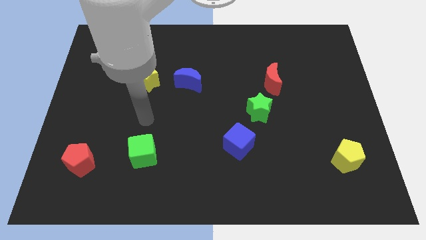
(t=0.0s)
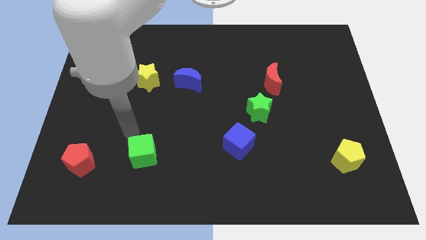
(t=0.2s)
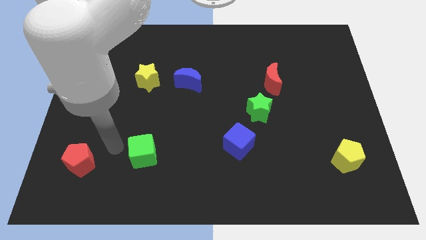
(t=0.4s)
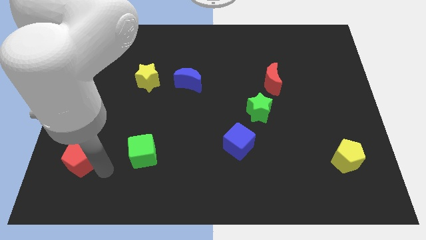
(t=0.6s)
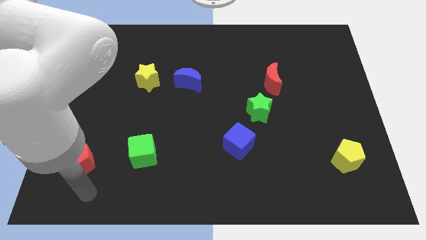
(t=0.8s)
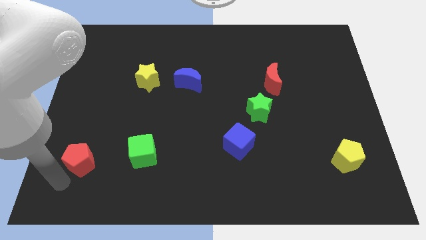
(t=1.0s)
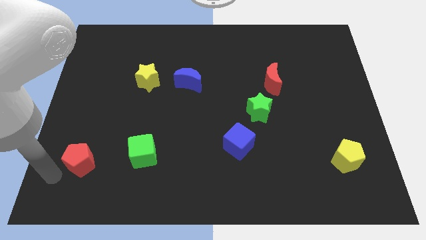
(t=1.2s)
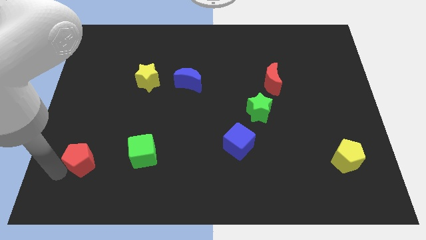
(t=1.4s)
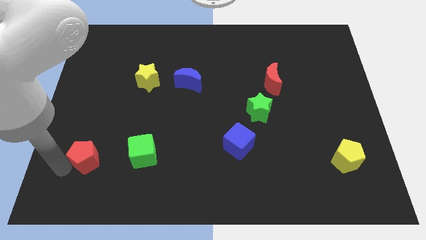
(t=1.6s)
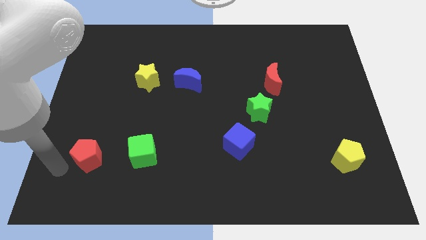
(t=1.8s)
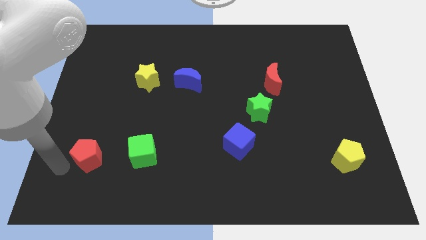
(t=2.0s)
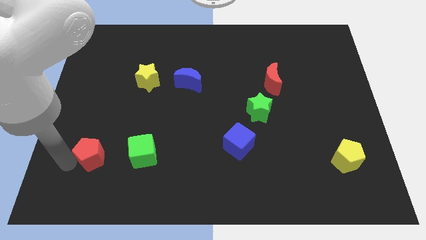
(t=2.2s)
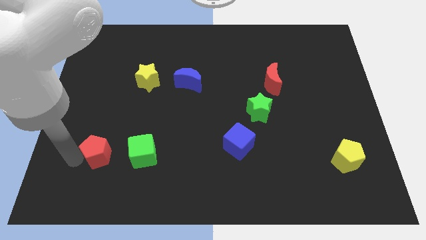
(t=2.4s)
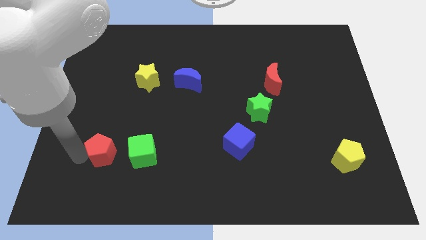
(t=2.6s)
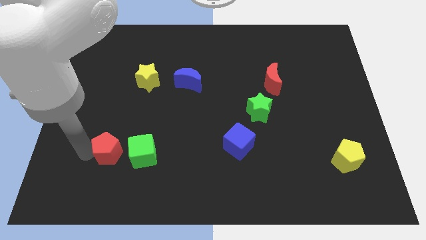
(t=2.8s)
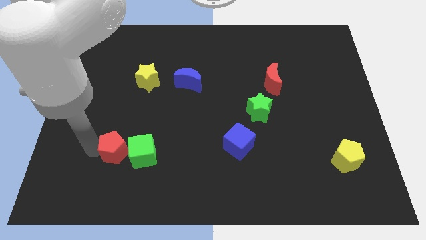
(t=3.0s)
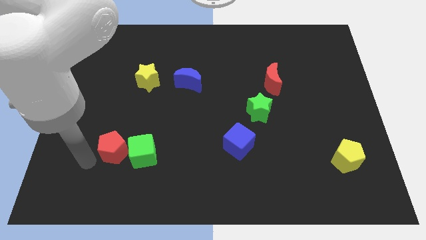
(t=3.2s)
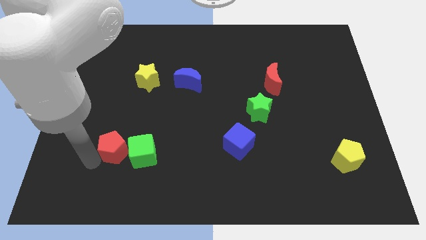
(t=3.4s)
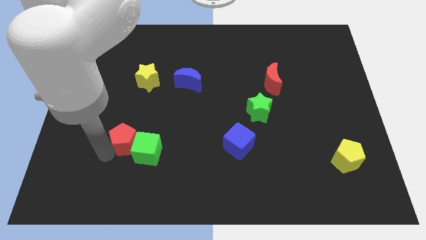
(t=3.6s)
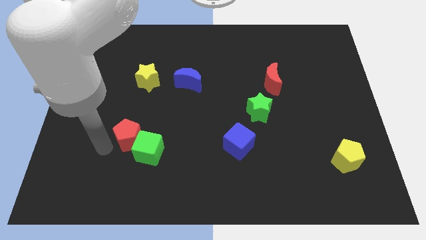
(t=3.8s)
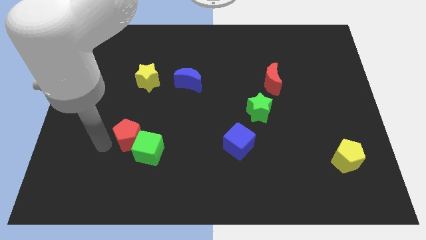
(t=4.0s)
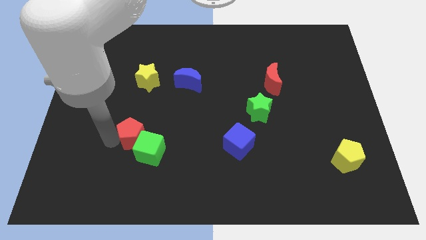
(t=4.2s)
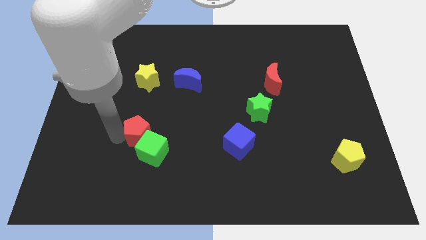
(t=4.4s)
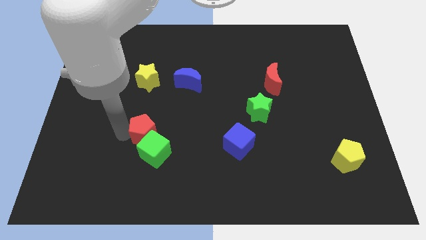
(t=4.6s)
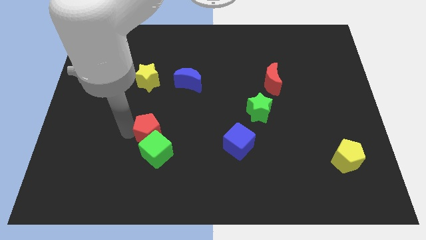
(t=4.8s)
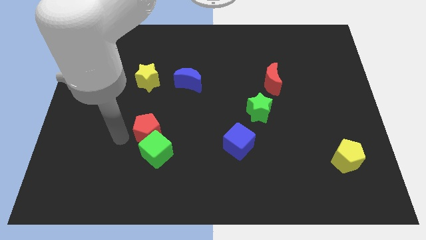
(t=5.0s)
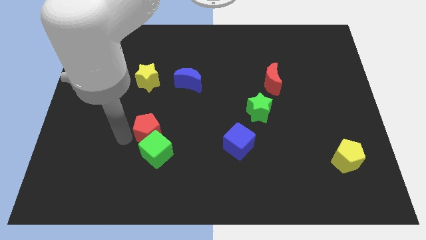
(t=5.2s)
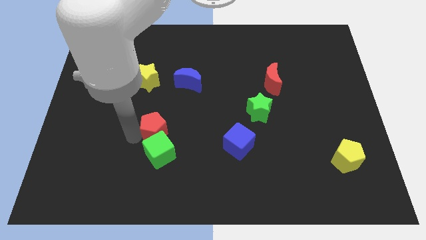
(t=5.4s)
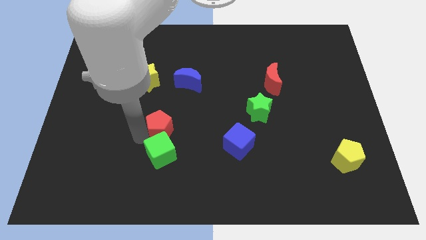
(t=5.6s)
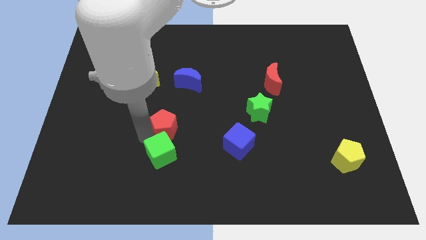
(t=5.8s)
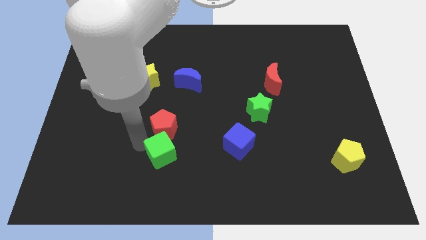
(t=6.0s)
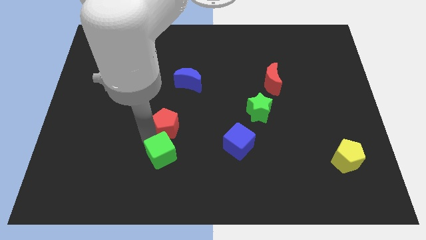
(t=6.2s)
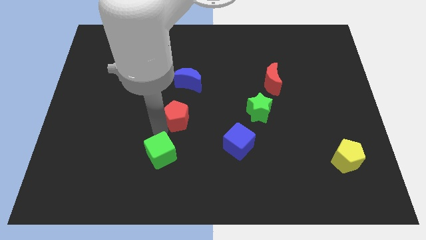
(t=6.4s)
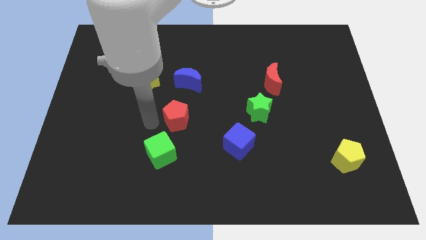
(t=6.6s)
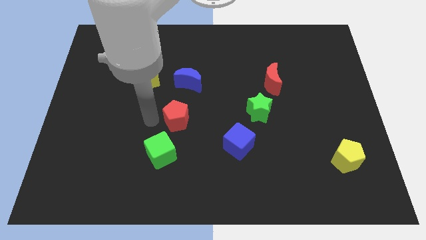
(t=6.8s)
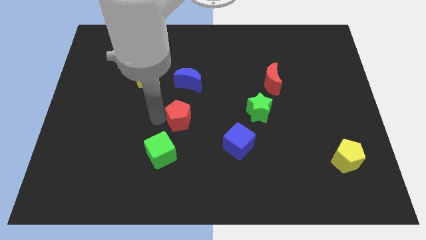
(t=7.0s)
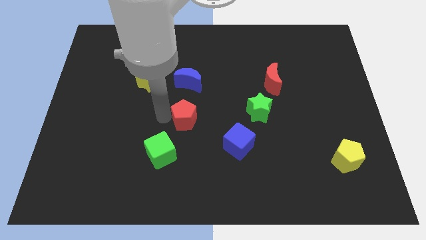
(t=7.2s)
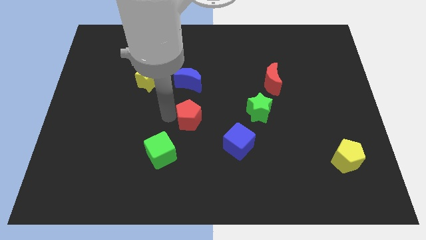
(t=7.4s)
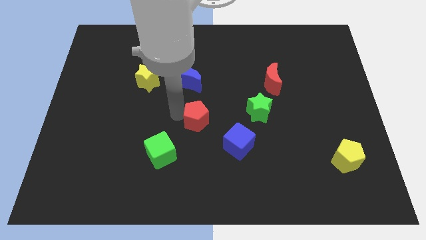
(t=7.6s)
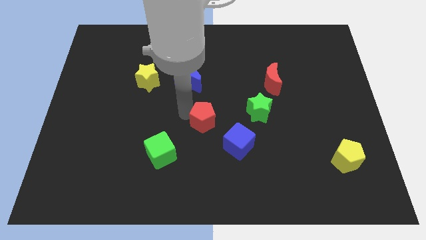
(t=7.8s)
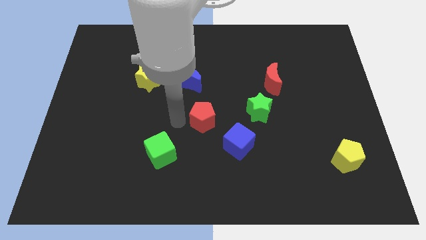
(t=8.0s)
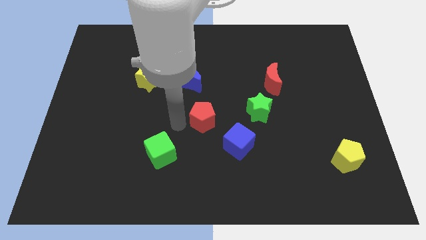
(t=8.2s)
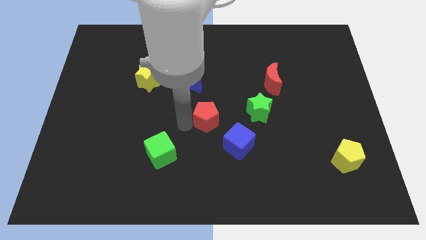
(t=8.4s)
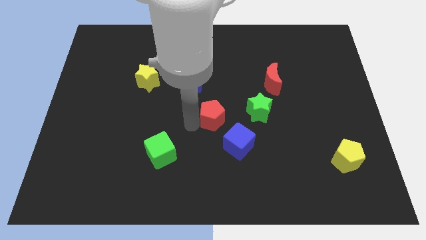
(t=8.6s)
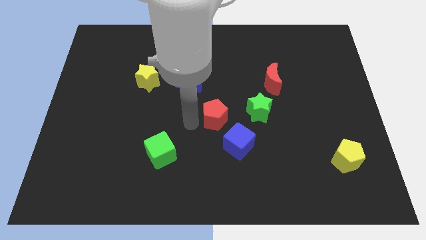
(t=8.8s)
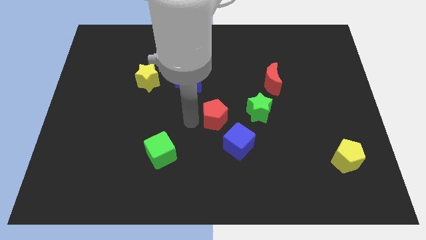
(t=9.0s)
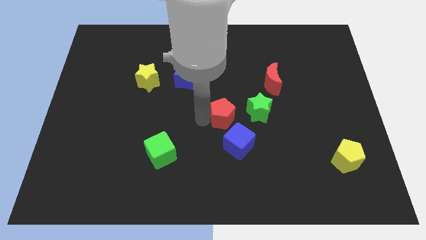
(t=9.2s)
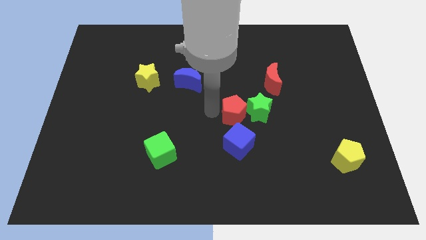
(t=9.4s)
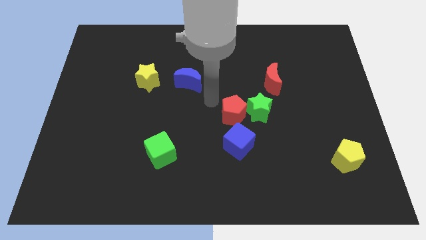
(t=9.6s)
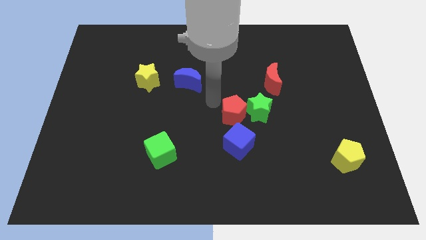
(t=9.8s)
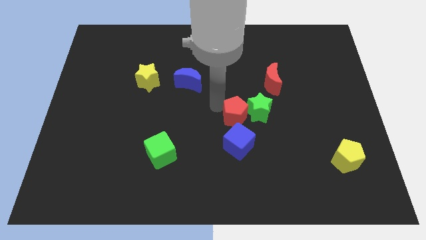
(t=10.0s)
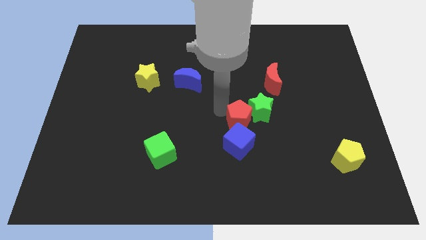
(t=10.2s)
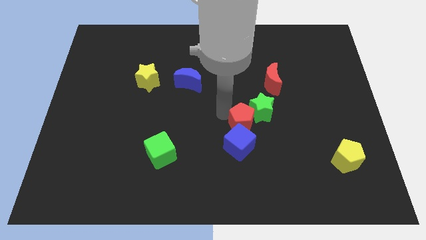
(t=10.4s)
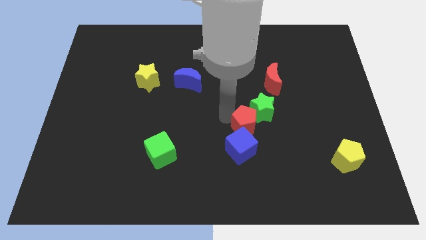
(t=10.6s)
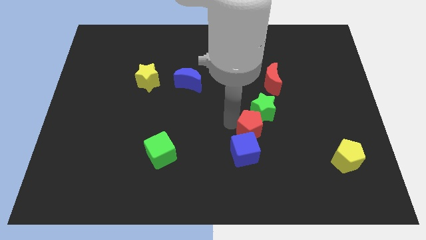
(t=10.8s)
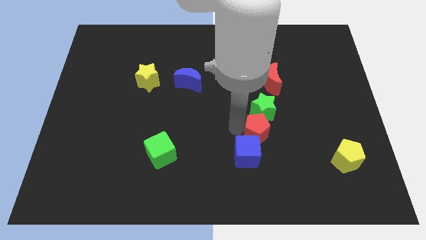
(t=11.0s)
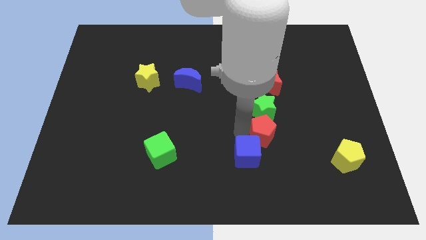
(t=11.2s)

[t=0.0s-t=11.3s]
push the red pentagon to the bottom right side of the green star
